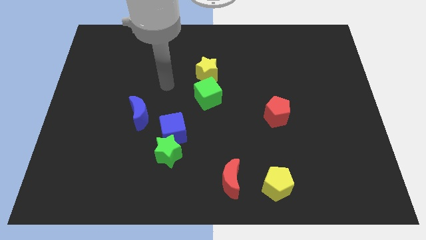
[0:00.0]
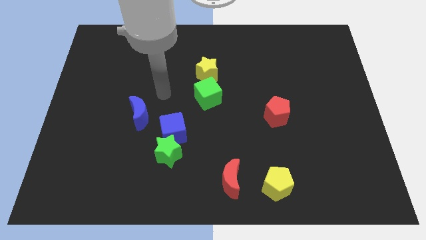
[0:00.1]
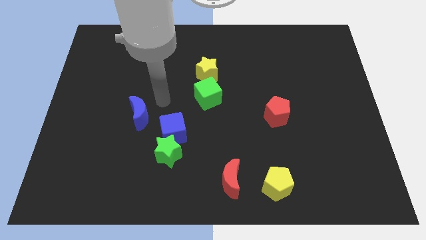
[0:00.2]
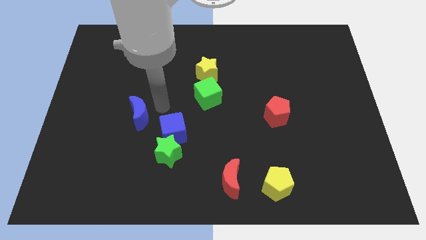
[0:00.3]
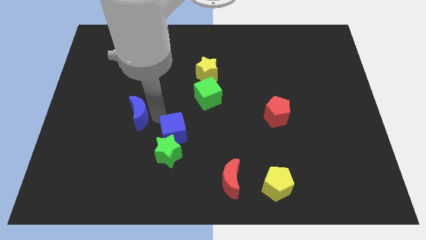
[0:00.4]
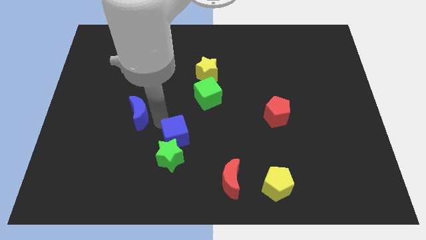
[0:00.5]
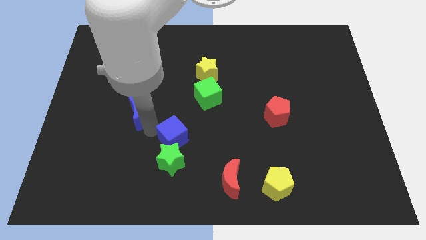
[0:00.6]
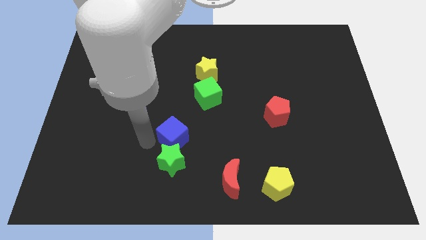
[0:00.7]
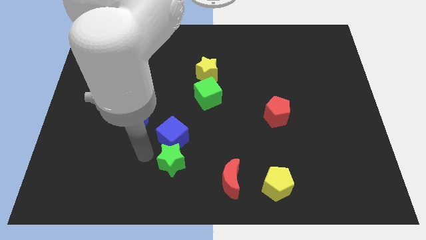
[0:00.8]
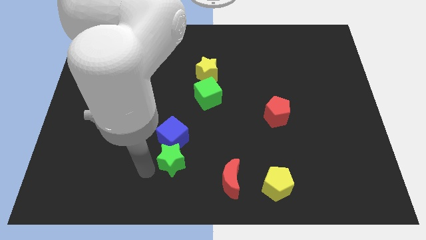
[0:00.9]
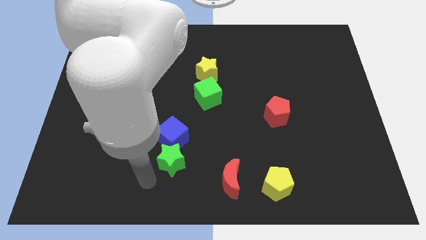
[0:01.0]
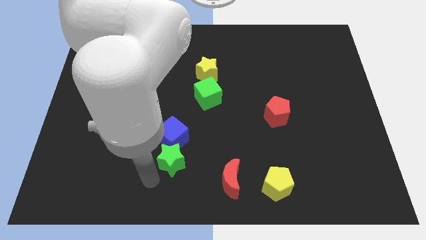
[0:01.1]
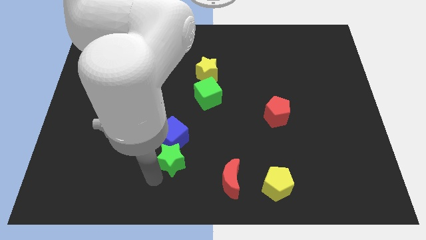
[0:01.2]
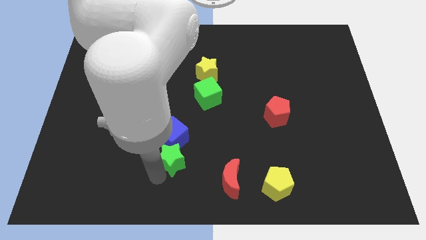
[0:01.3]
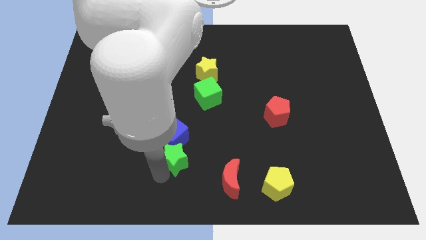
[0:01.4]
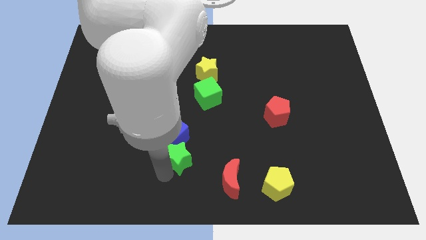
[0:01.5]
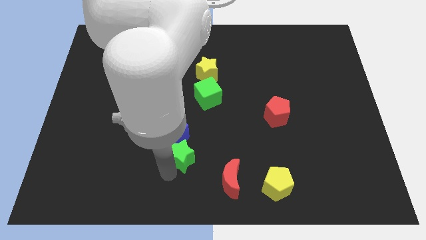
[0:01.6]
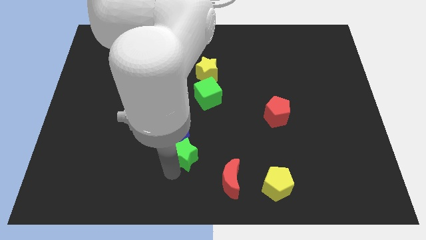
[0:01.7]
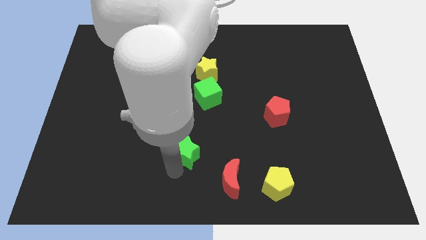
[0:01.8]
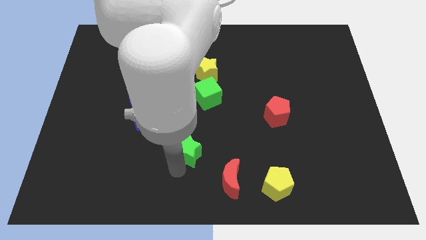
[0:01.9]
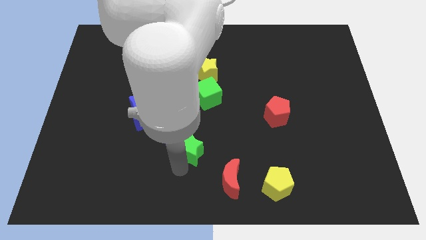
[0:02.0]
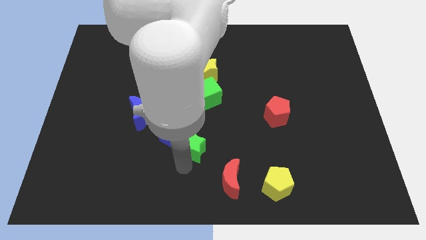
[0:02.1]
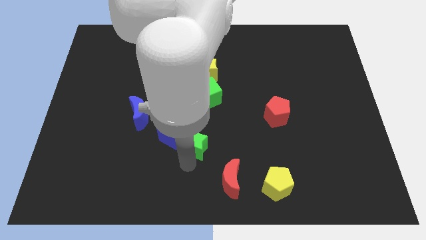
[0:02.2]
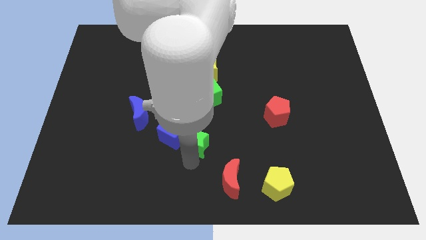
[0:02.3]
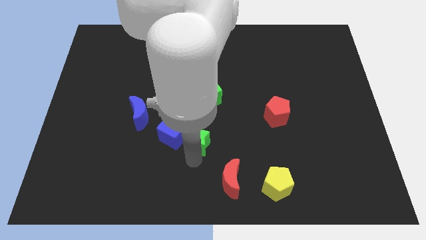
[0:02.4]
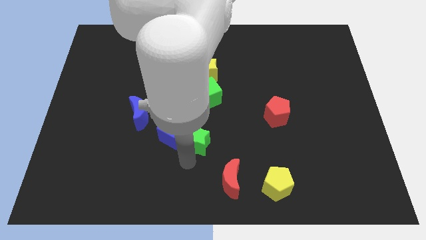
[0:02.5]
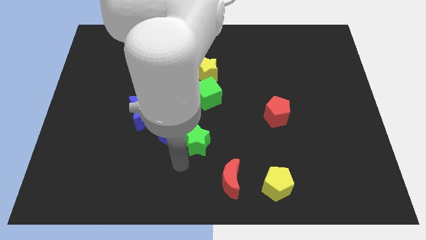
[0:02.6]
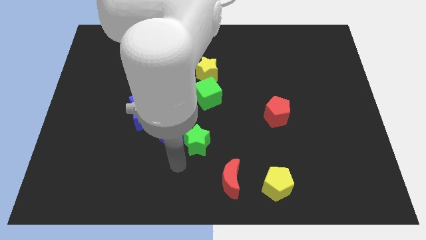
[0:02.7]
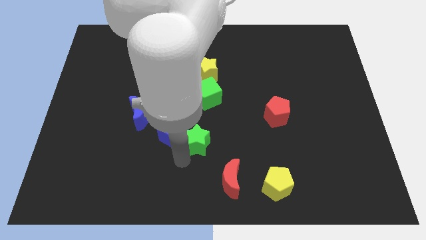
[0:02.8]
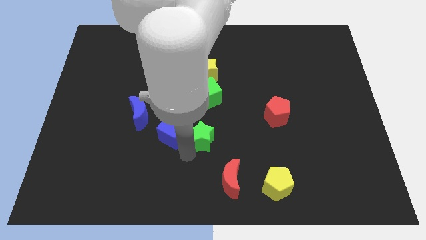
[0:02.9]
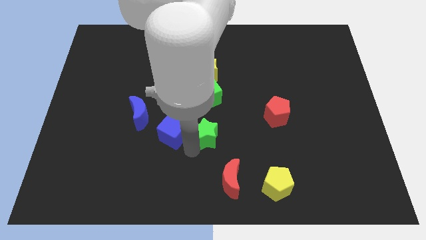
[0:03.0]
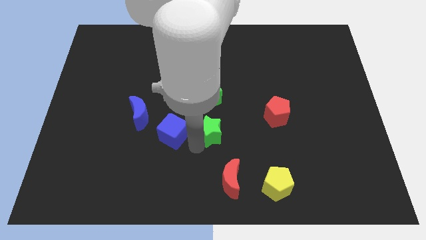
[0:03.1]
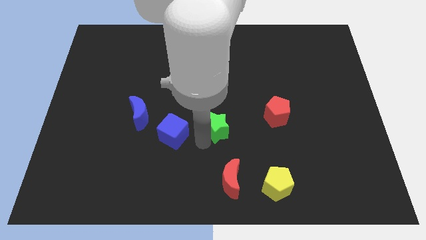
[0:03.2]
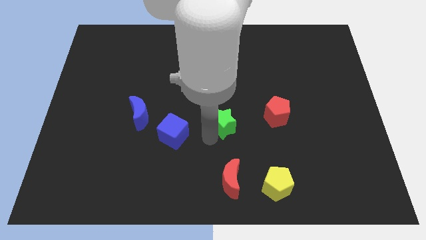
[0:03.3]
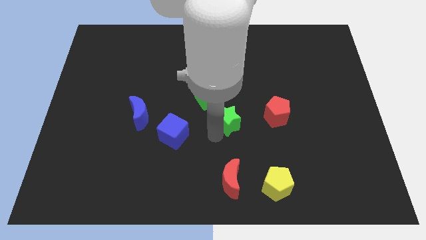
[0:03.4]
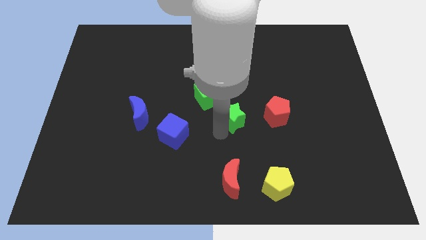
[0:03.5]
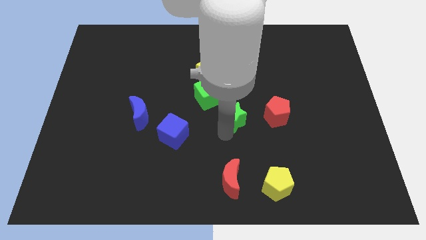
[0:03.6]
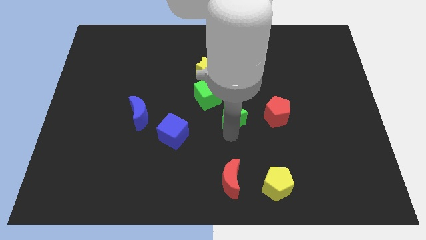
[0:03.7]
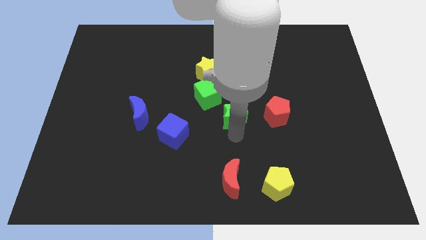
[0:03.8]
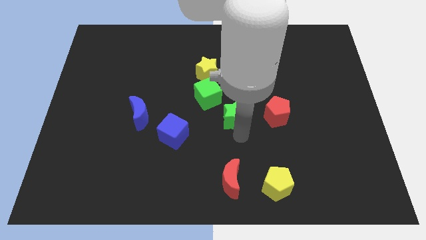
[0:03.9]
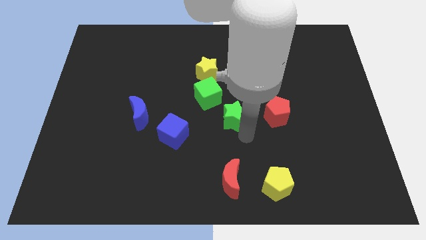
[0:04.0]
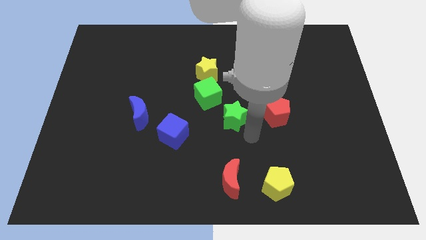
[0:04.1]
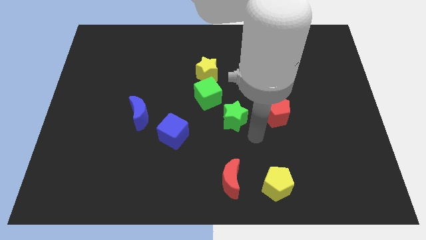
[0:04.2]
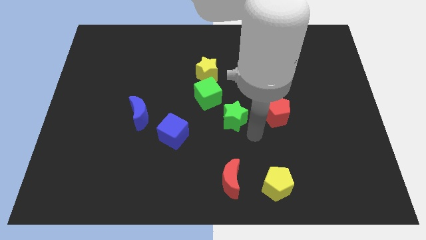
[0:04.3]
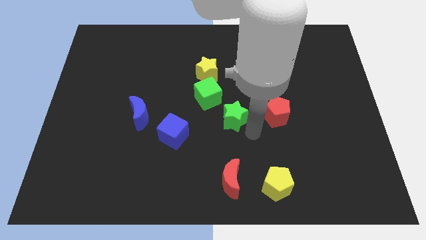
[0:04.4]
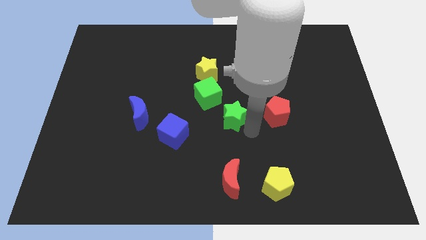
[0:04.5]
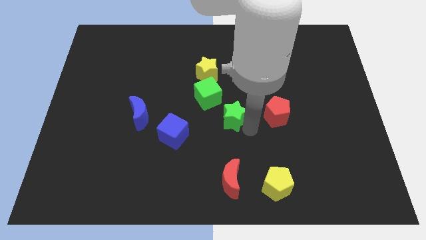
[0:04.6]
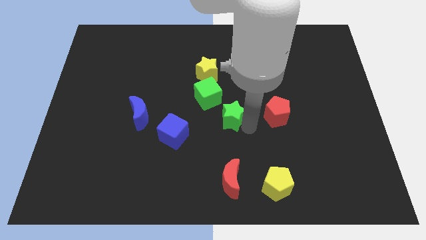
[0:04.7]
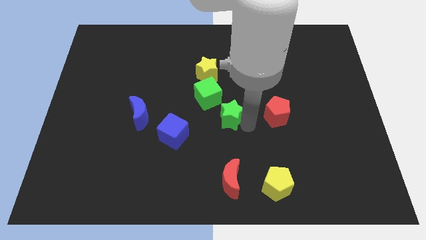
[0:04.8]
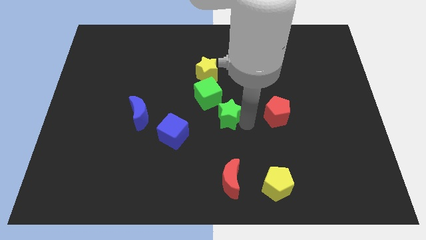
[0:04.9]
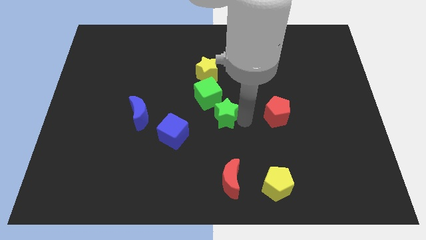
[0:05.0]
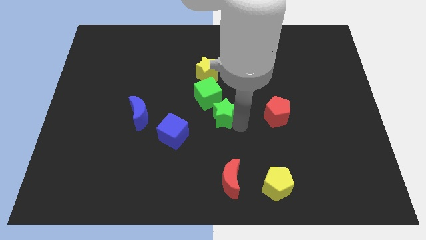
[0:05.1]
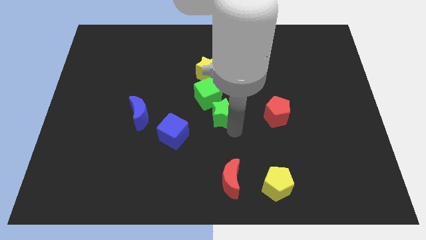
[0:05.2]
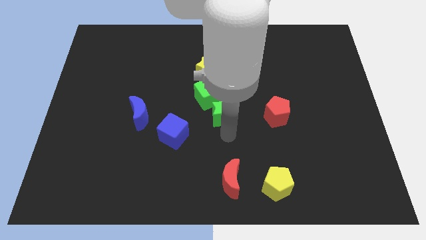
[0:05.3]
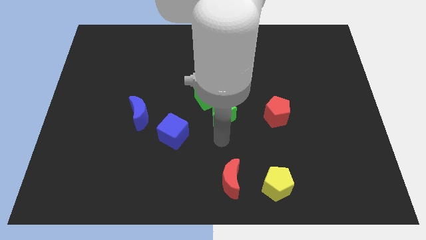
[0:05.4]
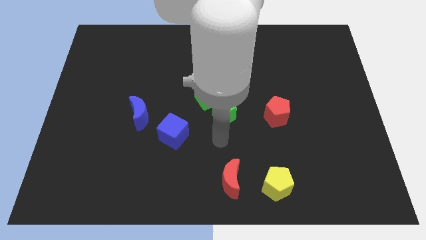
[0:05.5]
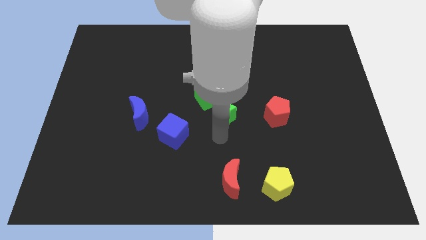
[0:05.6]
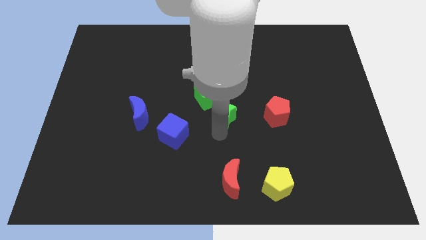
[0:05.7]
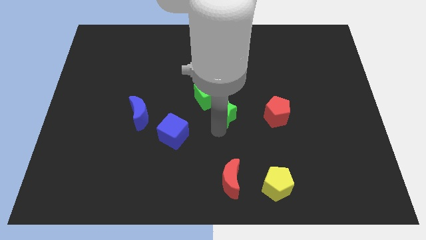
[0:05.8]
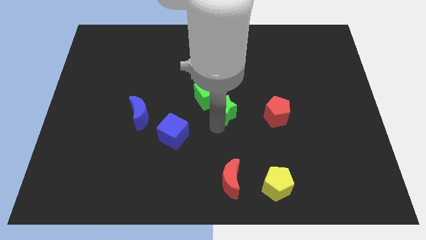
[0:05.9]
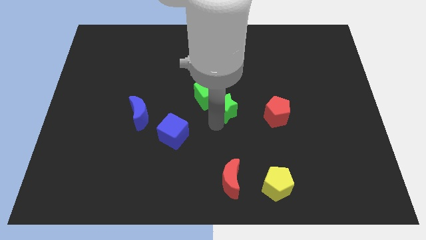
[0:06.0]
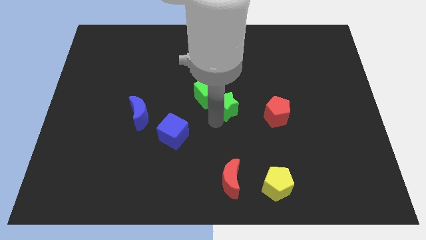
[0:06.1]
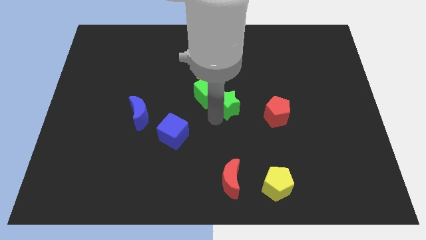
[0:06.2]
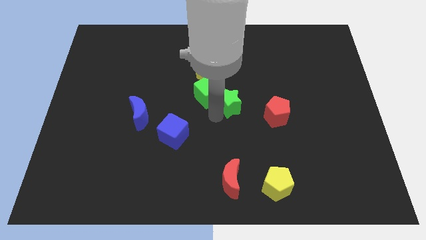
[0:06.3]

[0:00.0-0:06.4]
move the green star to the bottom right side of the yellow star

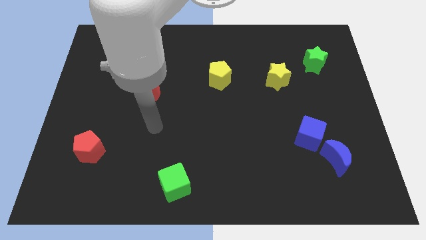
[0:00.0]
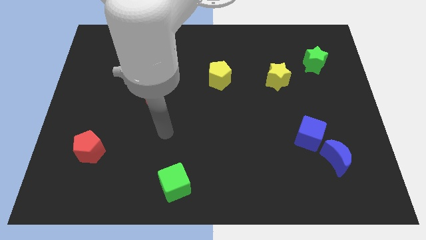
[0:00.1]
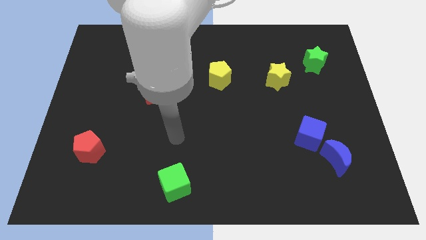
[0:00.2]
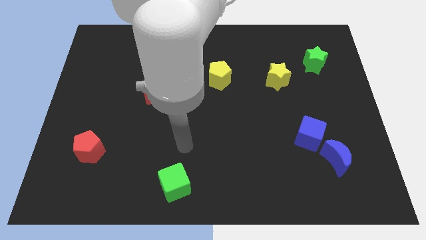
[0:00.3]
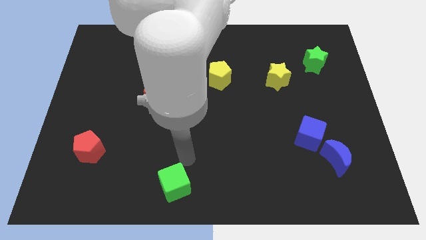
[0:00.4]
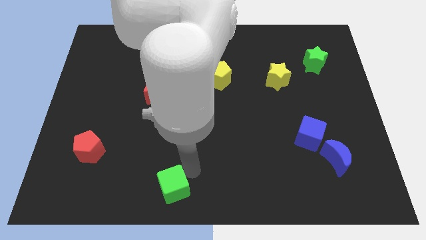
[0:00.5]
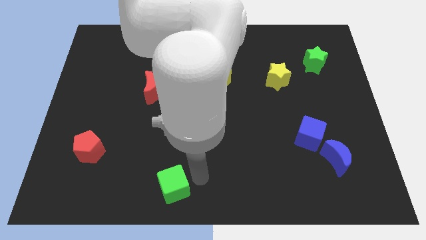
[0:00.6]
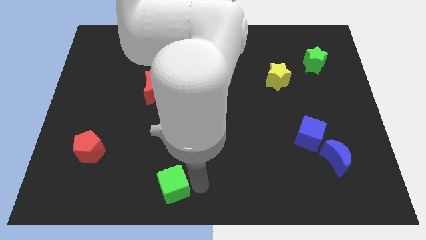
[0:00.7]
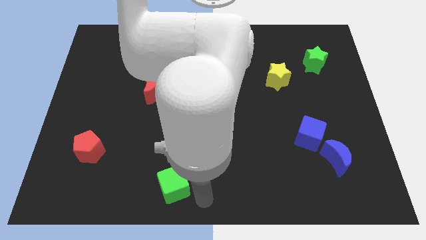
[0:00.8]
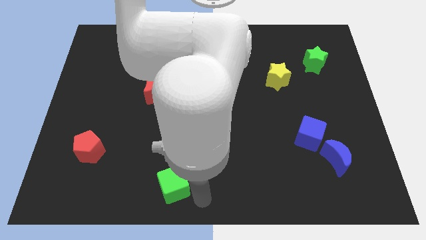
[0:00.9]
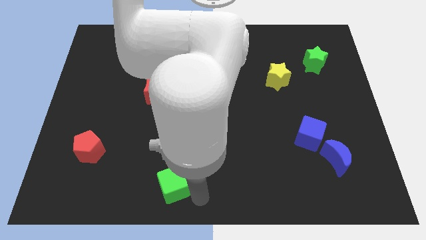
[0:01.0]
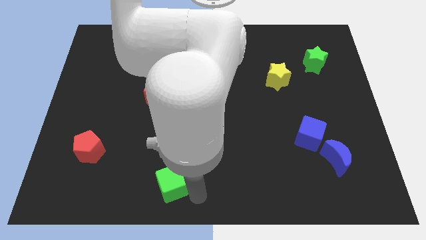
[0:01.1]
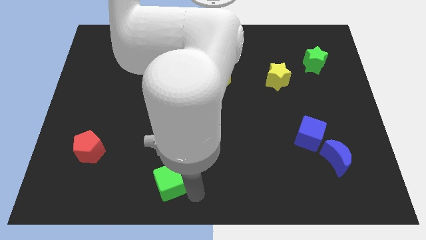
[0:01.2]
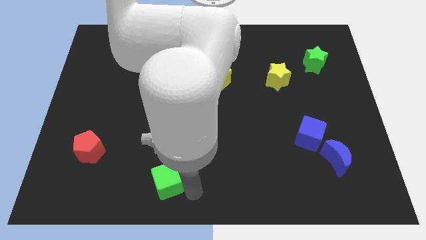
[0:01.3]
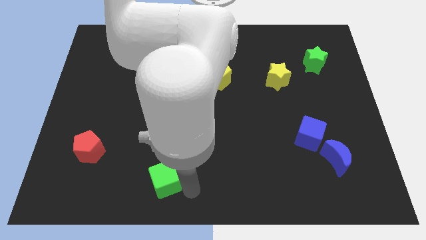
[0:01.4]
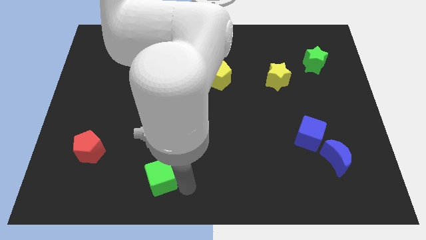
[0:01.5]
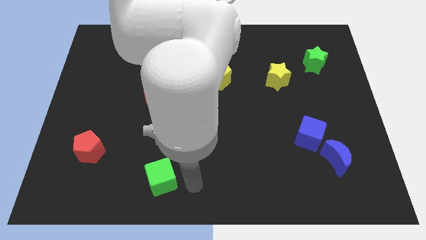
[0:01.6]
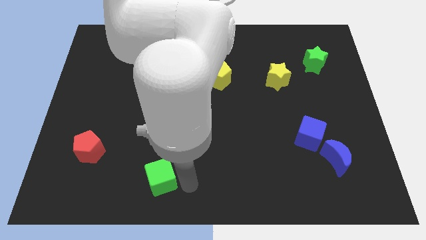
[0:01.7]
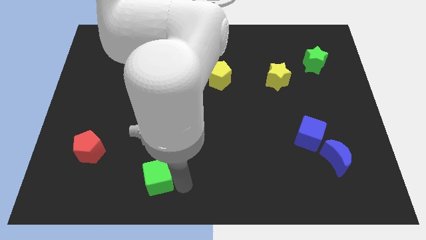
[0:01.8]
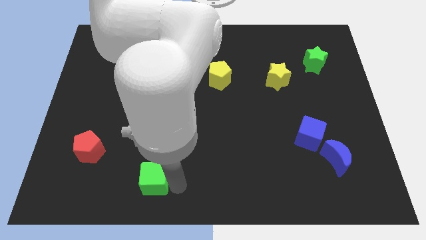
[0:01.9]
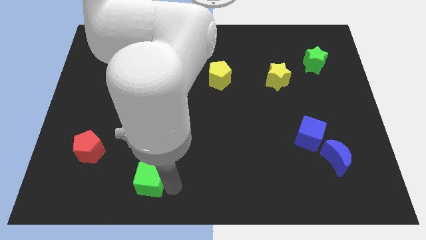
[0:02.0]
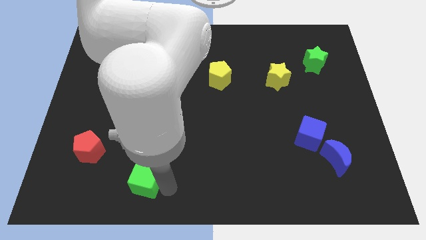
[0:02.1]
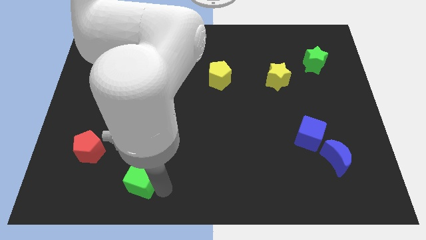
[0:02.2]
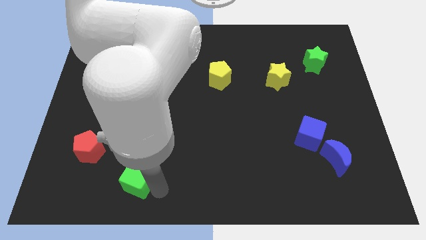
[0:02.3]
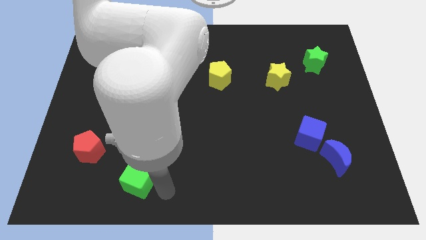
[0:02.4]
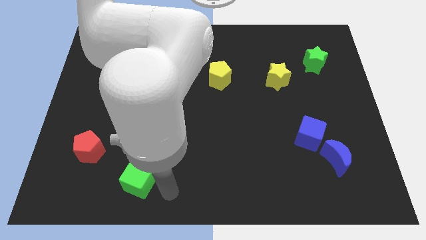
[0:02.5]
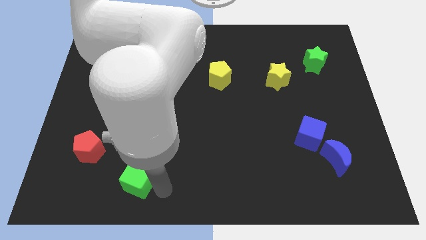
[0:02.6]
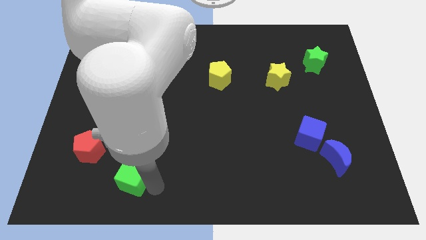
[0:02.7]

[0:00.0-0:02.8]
move the green cube to the bottom right side of the red pentagon
